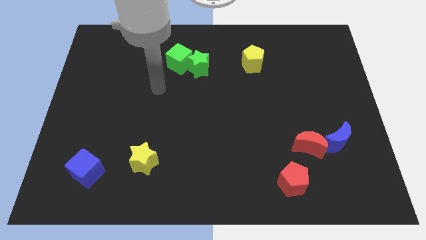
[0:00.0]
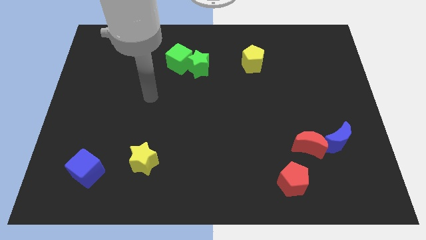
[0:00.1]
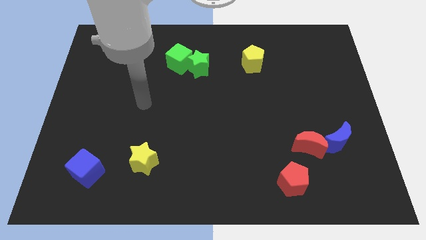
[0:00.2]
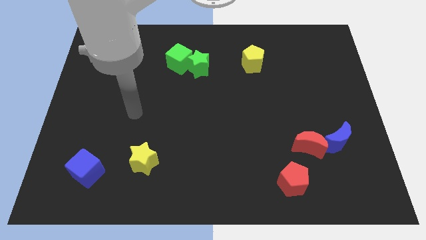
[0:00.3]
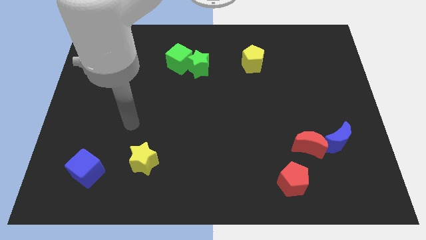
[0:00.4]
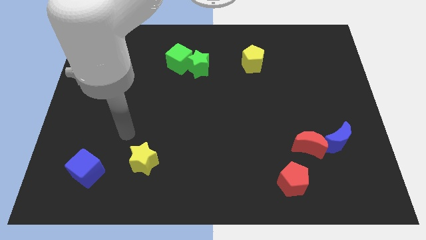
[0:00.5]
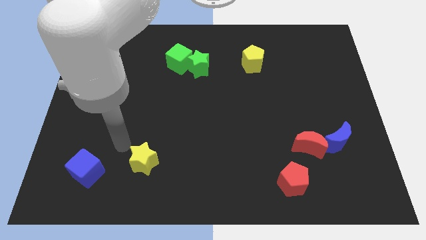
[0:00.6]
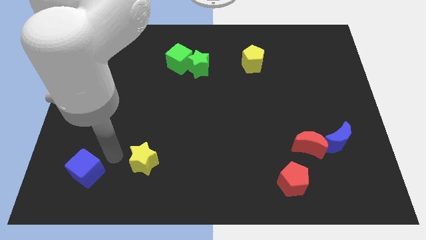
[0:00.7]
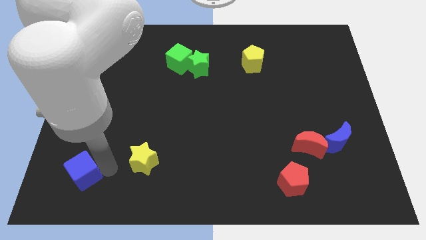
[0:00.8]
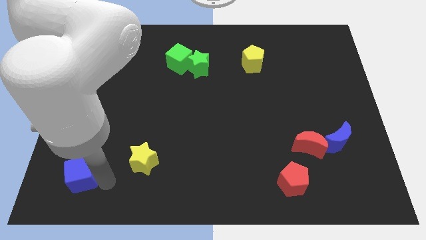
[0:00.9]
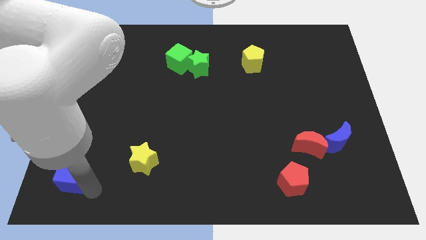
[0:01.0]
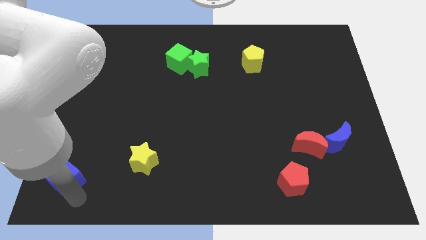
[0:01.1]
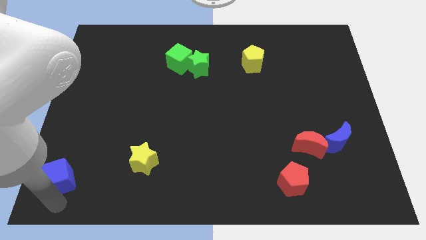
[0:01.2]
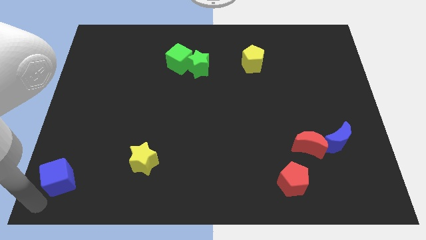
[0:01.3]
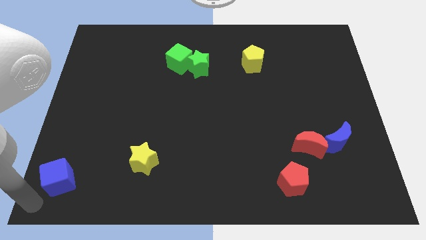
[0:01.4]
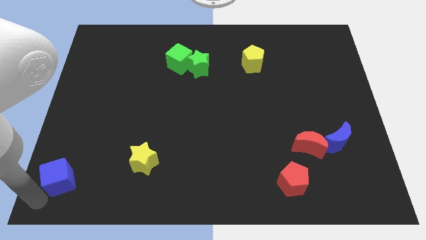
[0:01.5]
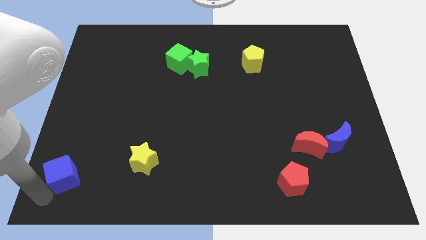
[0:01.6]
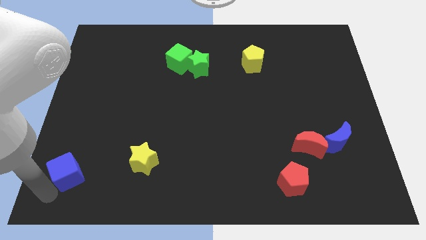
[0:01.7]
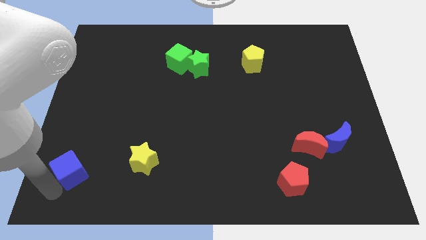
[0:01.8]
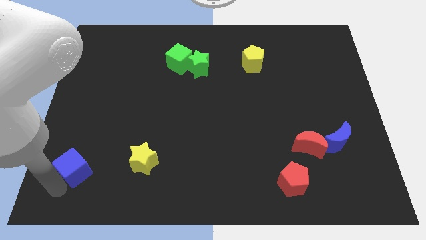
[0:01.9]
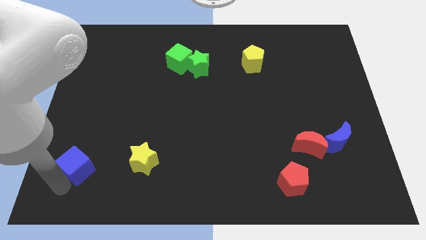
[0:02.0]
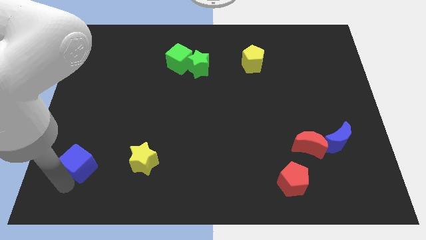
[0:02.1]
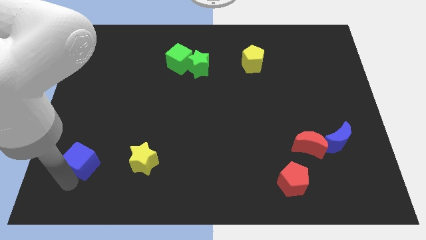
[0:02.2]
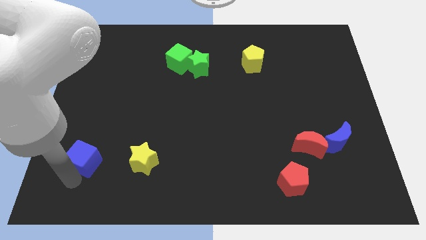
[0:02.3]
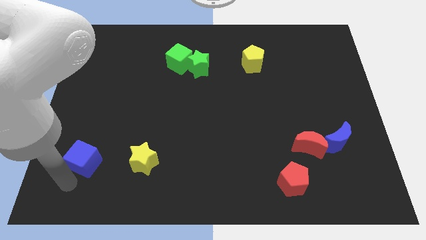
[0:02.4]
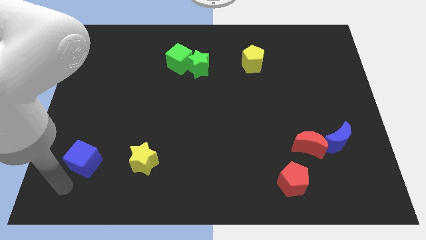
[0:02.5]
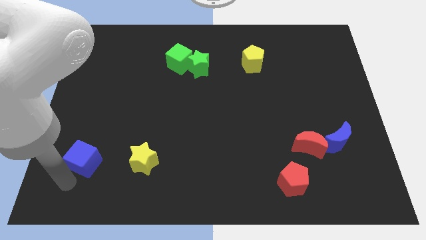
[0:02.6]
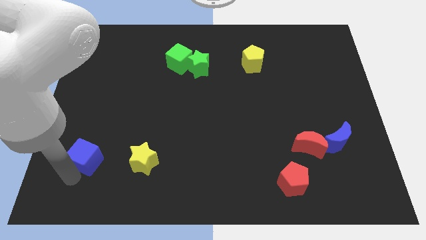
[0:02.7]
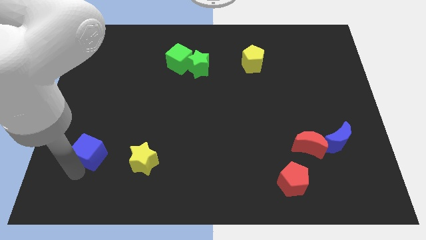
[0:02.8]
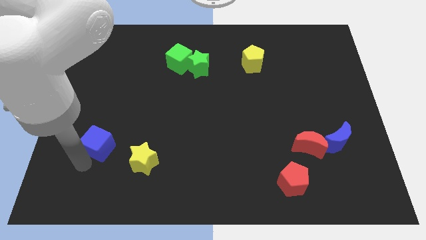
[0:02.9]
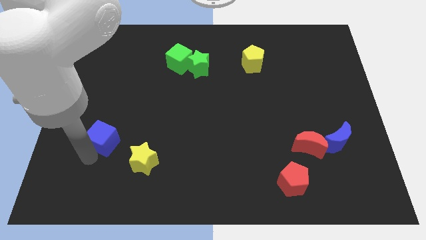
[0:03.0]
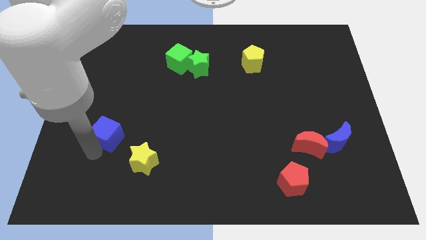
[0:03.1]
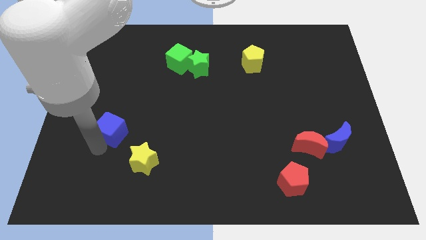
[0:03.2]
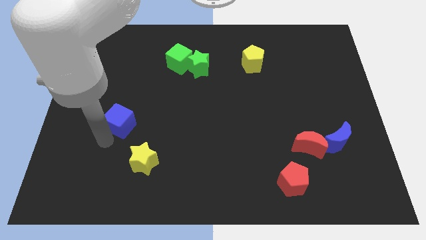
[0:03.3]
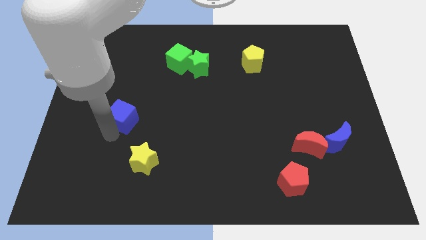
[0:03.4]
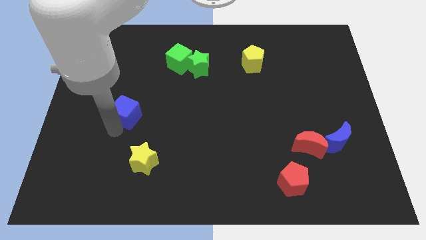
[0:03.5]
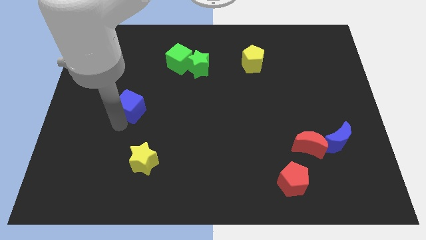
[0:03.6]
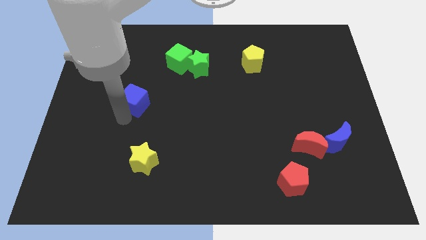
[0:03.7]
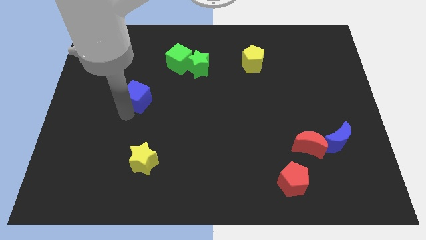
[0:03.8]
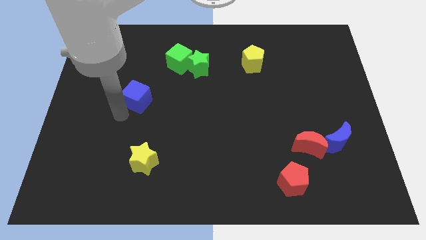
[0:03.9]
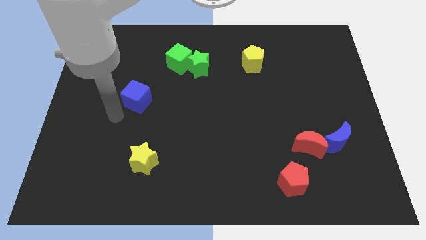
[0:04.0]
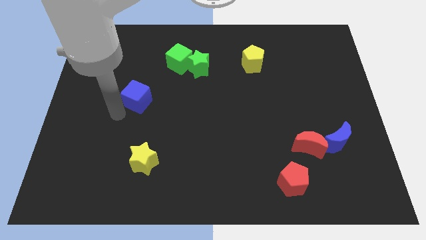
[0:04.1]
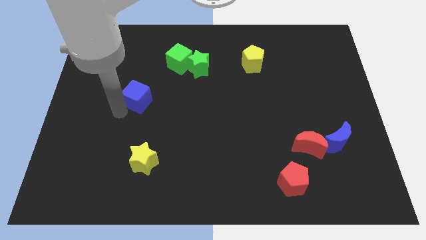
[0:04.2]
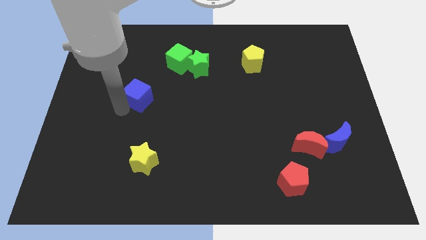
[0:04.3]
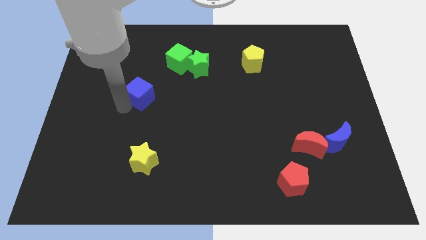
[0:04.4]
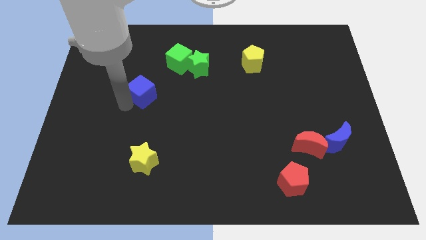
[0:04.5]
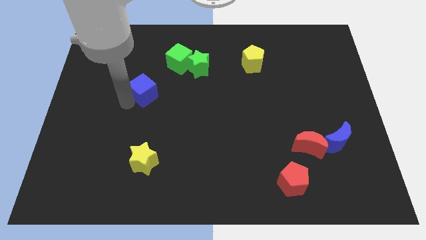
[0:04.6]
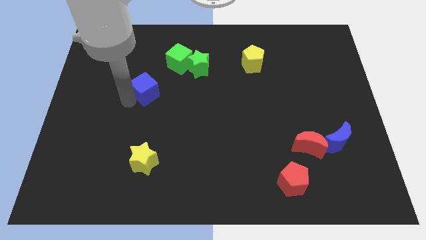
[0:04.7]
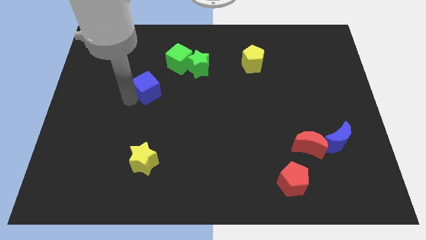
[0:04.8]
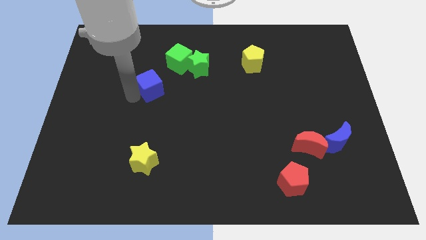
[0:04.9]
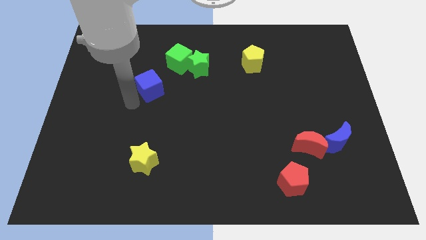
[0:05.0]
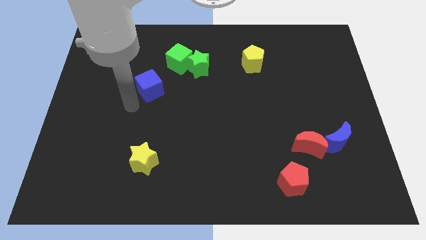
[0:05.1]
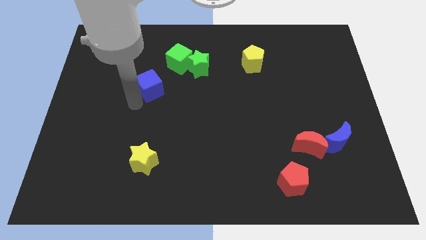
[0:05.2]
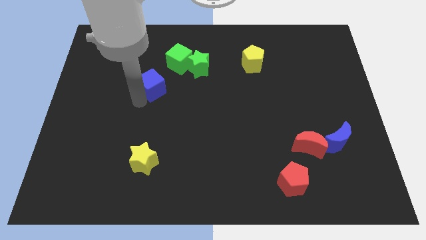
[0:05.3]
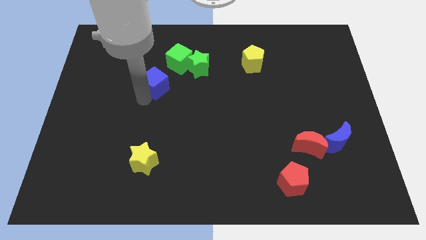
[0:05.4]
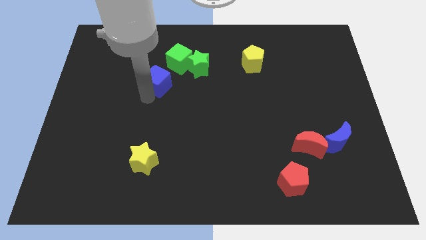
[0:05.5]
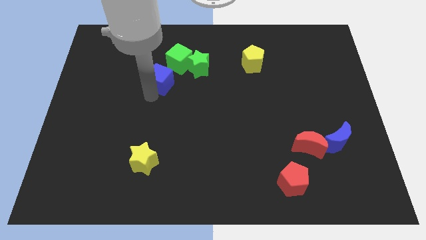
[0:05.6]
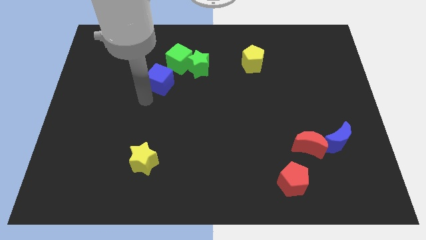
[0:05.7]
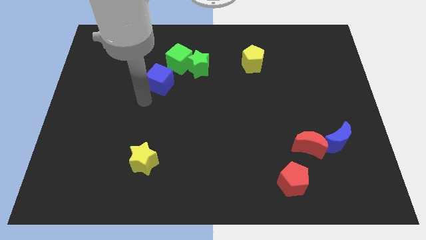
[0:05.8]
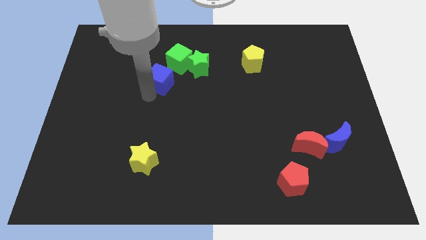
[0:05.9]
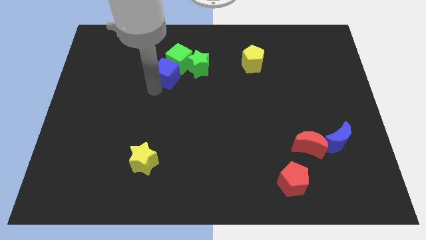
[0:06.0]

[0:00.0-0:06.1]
move the blue cube next to the green cube

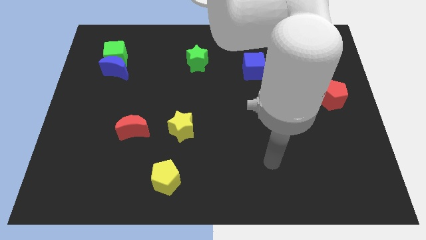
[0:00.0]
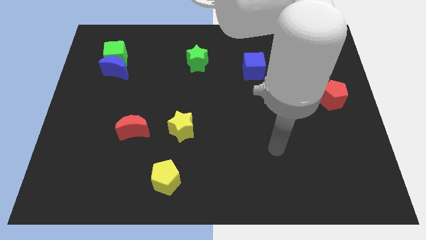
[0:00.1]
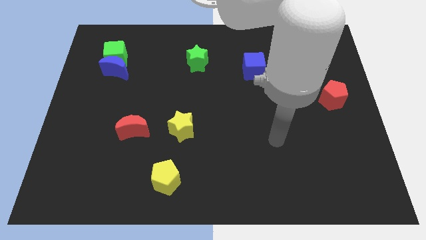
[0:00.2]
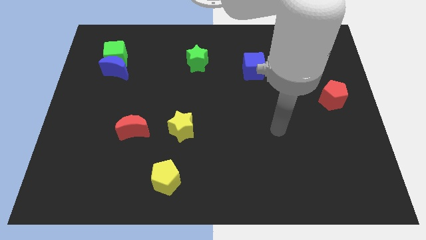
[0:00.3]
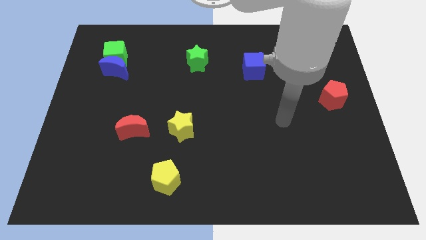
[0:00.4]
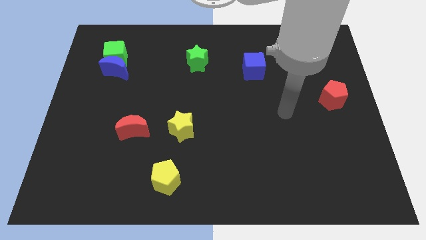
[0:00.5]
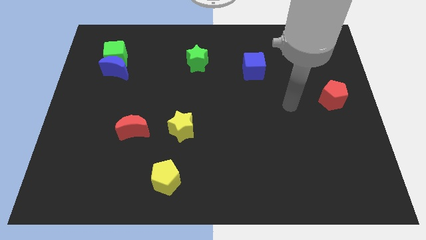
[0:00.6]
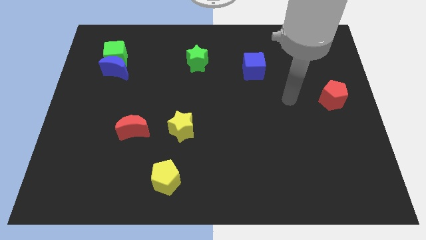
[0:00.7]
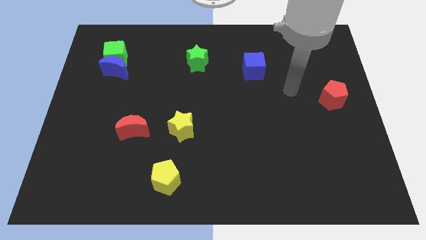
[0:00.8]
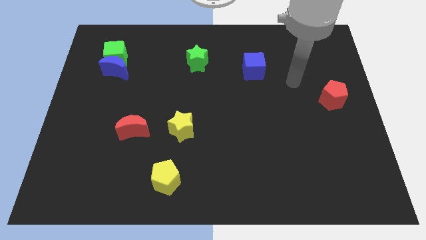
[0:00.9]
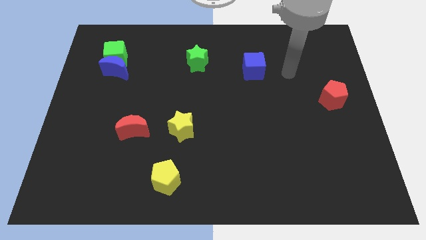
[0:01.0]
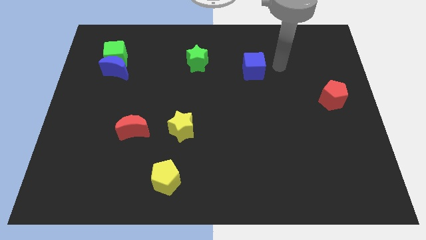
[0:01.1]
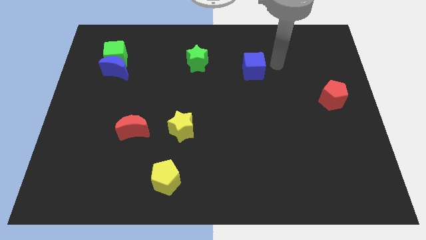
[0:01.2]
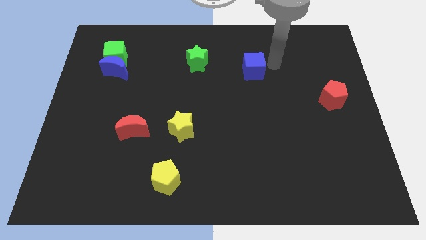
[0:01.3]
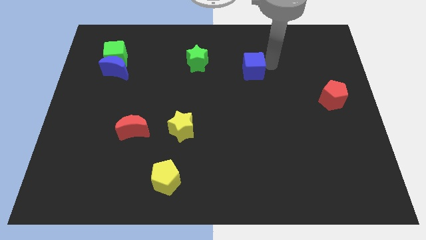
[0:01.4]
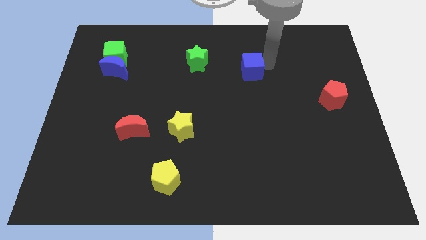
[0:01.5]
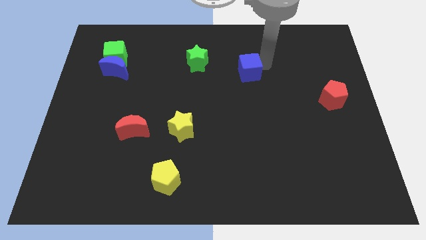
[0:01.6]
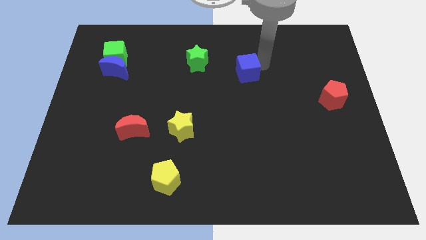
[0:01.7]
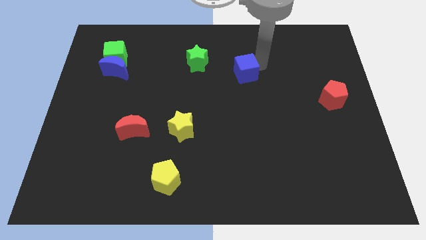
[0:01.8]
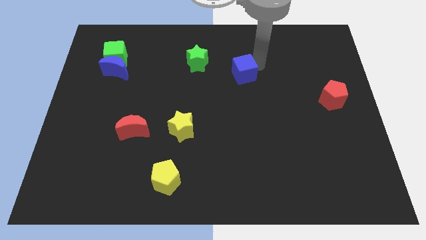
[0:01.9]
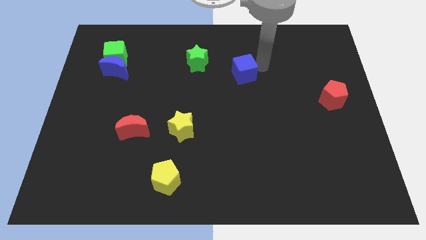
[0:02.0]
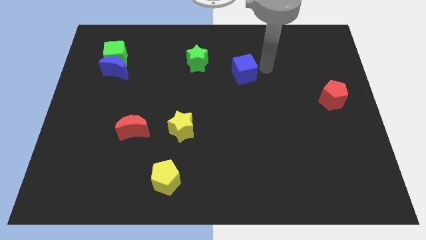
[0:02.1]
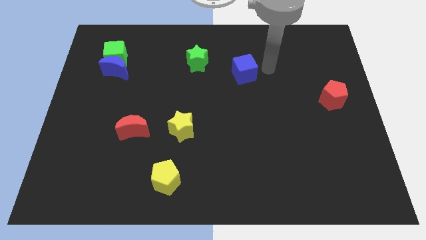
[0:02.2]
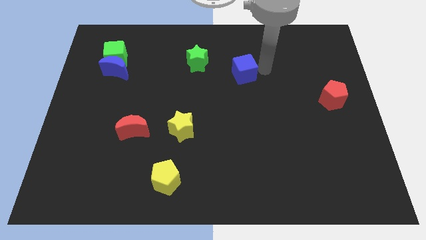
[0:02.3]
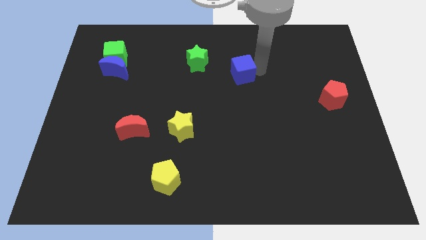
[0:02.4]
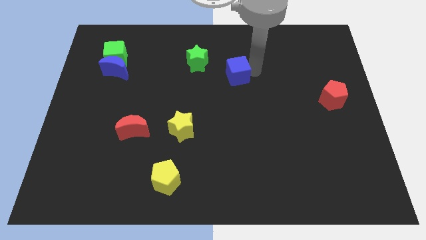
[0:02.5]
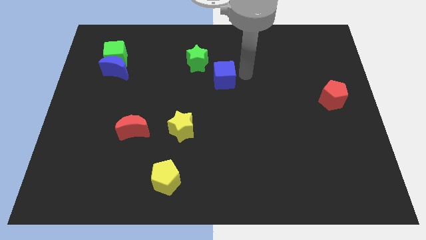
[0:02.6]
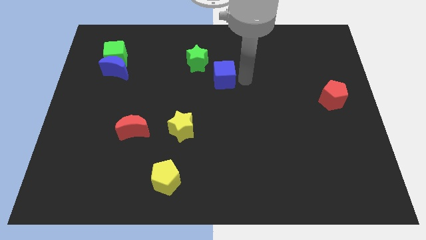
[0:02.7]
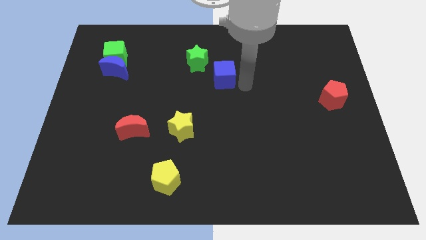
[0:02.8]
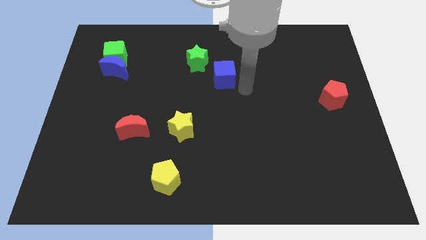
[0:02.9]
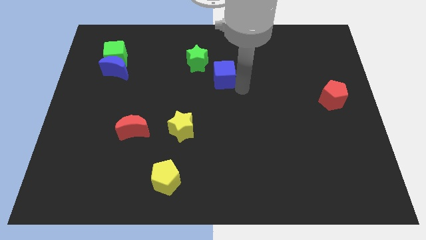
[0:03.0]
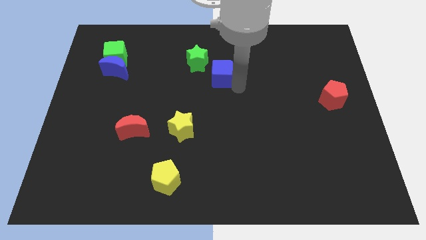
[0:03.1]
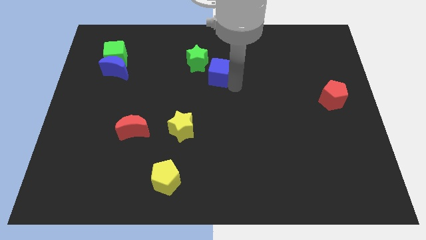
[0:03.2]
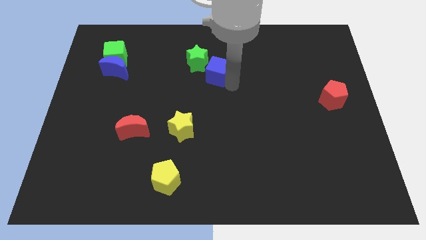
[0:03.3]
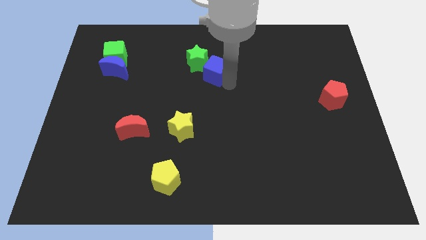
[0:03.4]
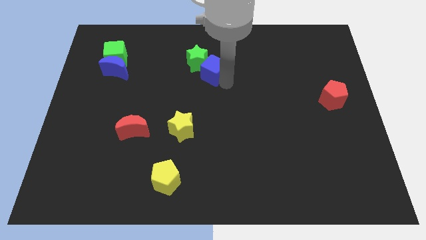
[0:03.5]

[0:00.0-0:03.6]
move the blue cube to the green star
